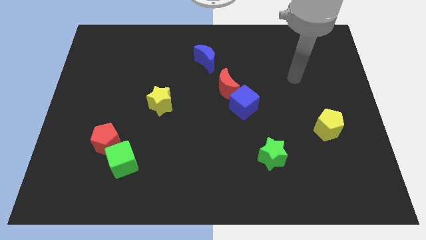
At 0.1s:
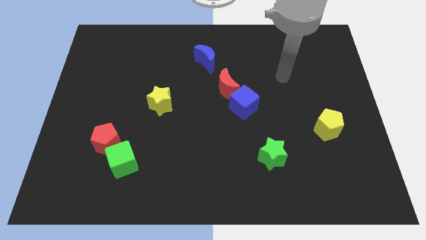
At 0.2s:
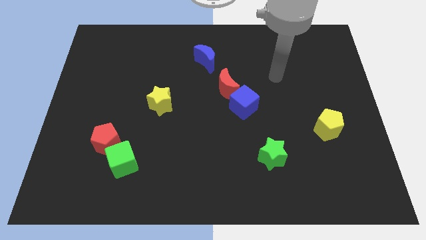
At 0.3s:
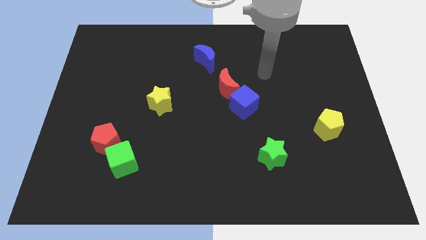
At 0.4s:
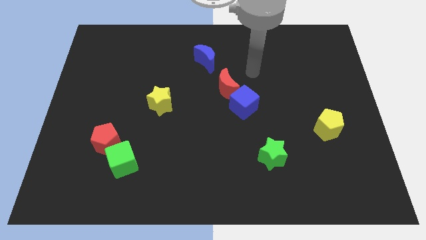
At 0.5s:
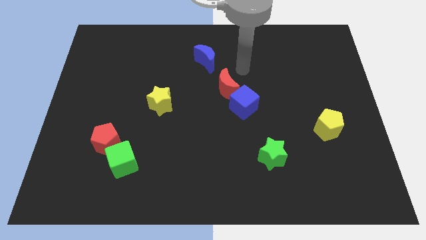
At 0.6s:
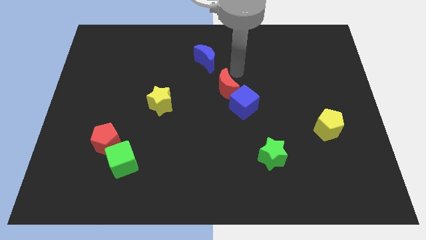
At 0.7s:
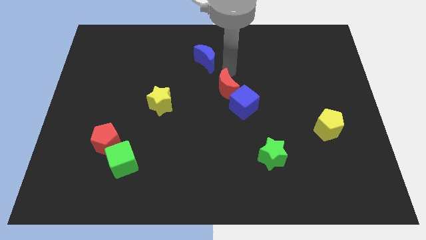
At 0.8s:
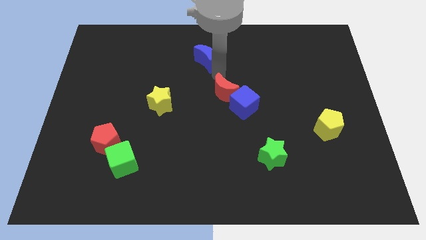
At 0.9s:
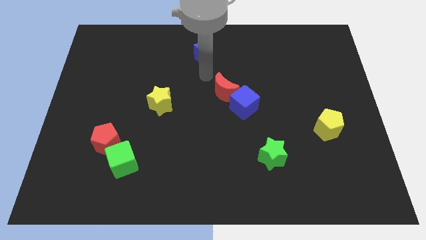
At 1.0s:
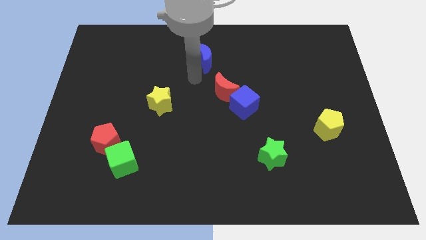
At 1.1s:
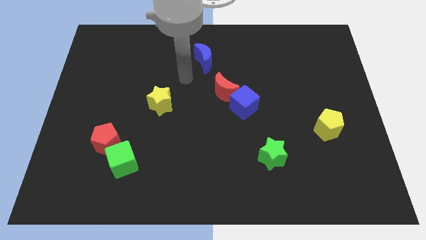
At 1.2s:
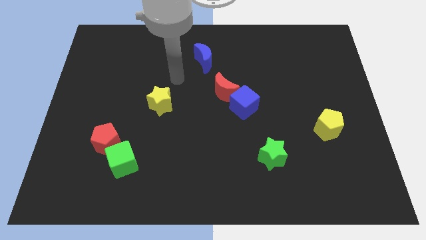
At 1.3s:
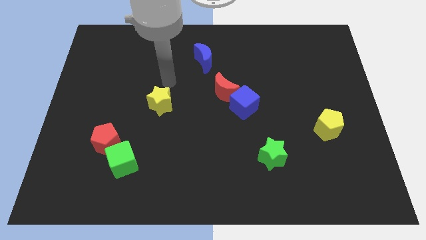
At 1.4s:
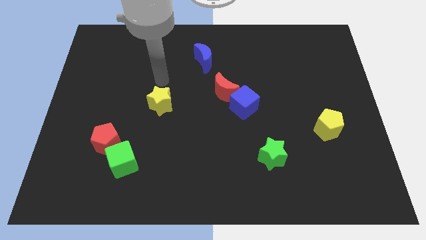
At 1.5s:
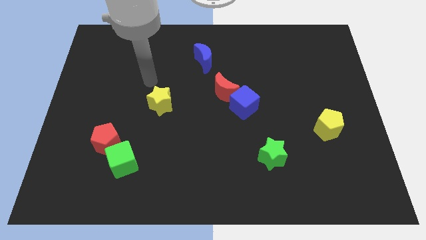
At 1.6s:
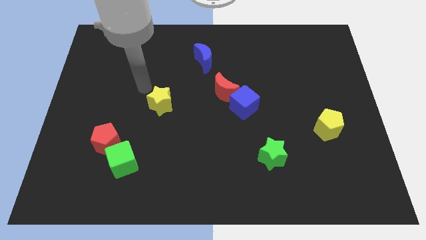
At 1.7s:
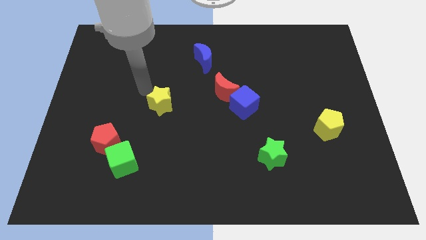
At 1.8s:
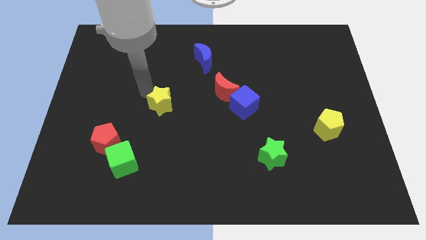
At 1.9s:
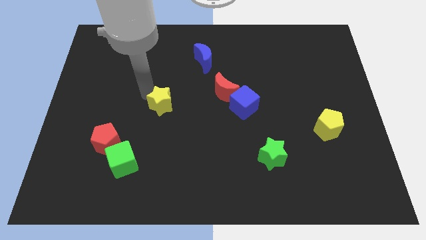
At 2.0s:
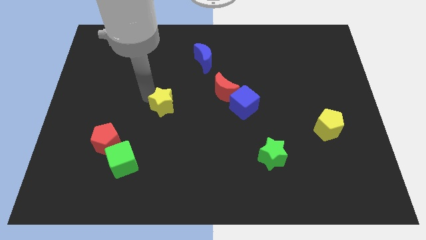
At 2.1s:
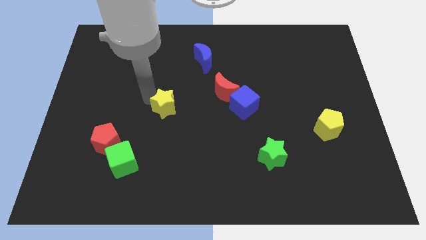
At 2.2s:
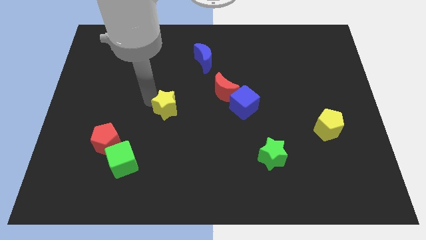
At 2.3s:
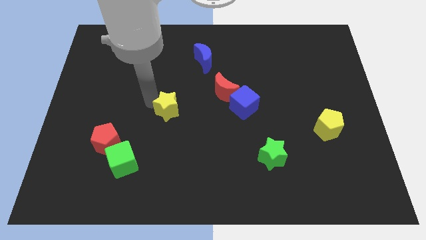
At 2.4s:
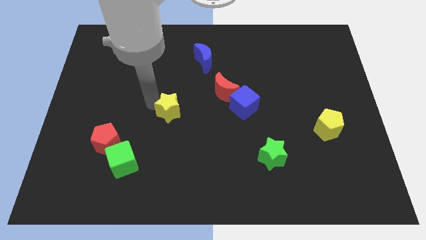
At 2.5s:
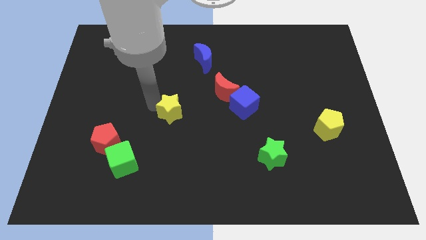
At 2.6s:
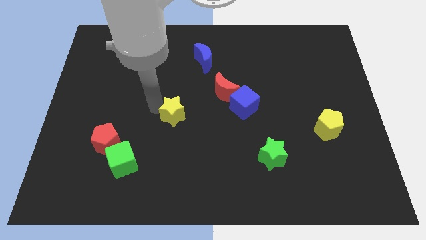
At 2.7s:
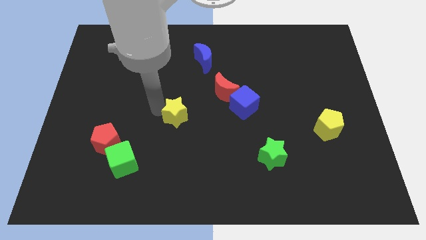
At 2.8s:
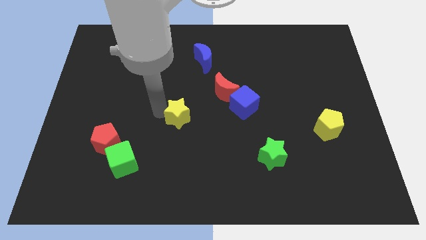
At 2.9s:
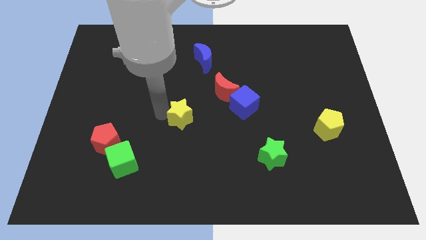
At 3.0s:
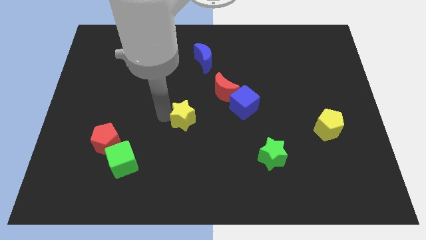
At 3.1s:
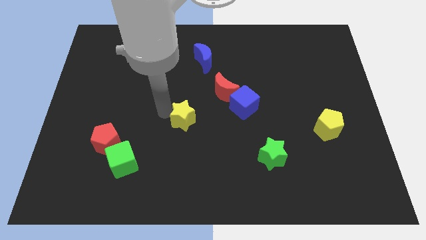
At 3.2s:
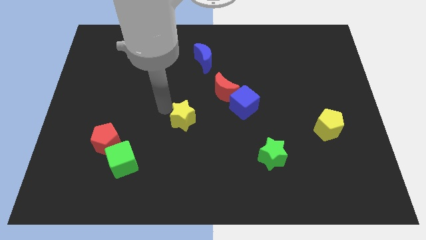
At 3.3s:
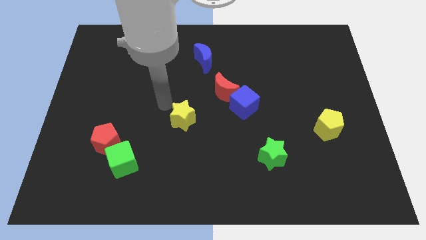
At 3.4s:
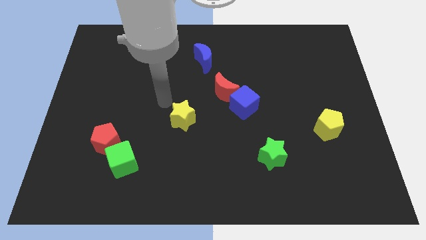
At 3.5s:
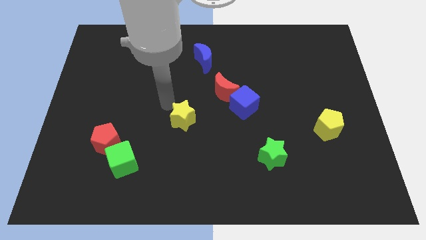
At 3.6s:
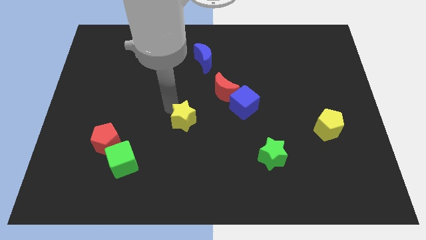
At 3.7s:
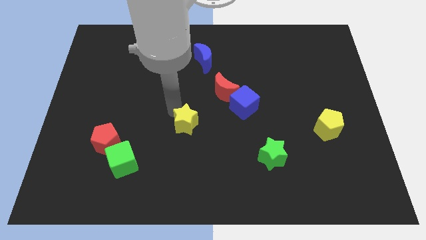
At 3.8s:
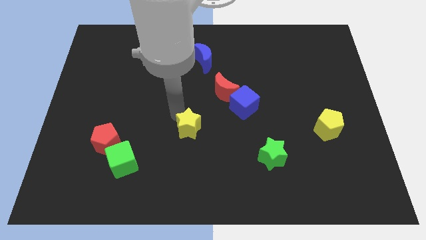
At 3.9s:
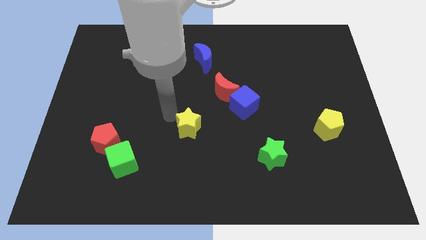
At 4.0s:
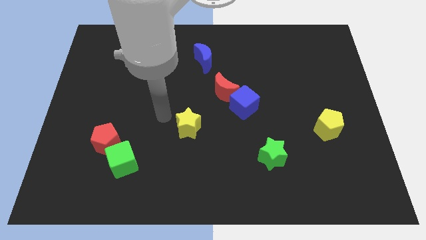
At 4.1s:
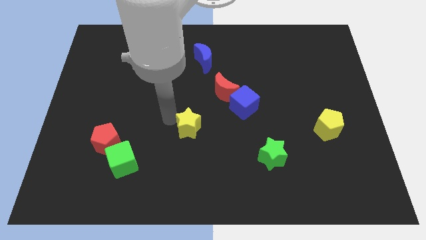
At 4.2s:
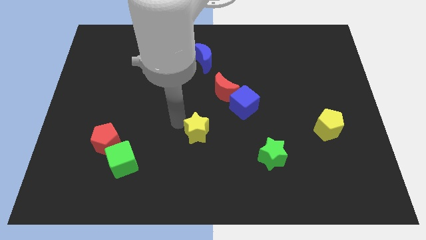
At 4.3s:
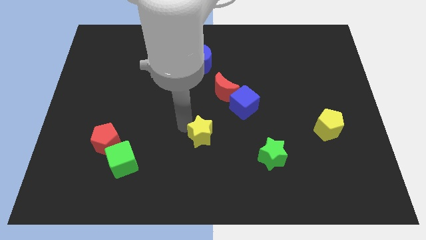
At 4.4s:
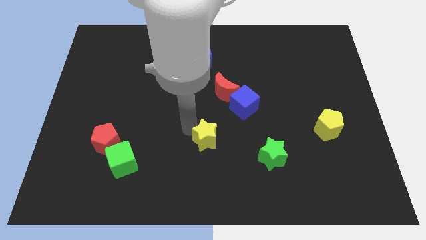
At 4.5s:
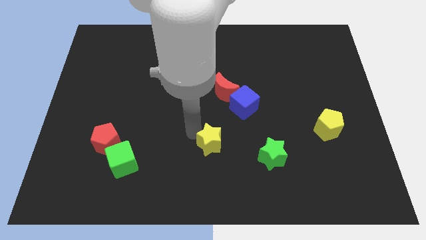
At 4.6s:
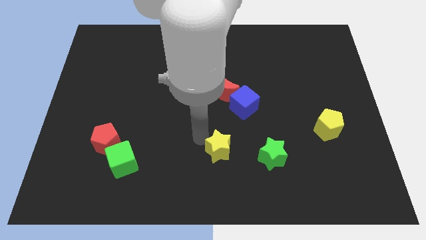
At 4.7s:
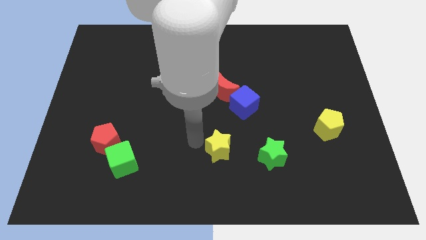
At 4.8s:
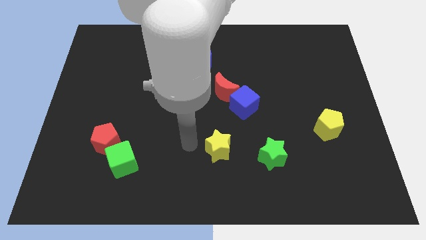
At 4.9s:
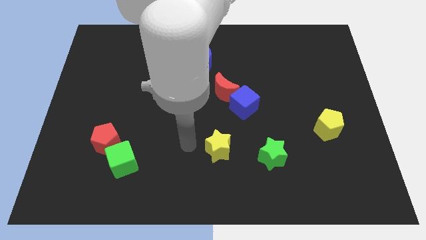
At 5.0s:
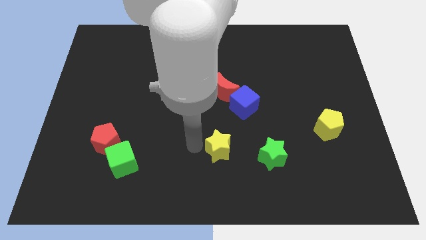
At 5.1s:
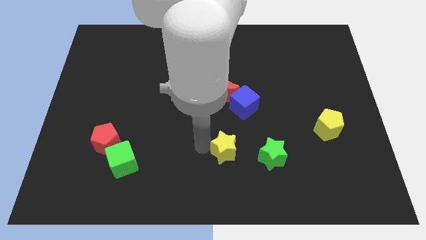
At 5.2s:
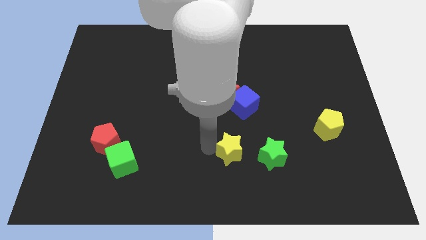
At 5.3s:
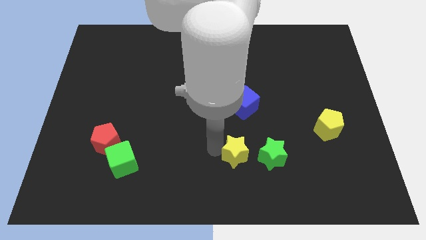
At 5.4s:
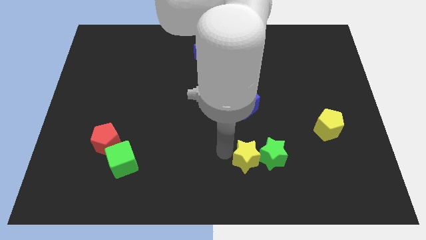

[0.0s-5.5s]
move the yellow star towards the green star

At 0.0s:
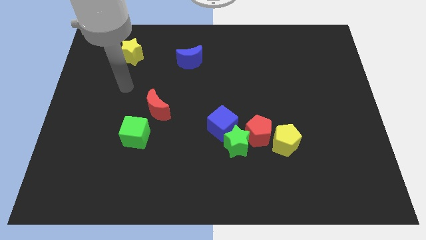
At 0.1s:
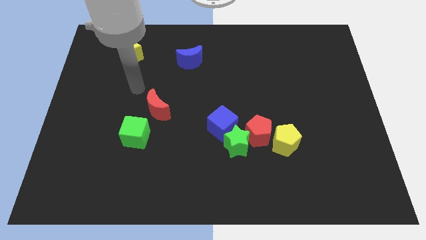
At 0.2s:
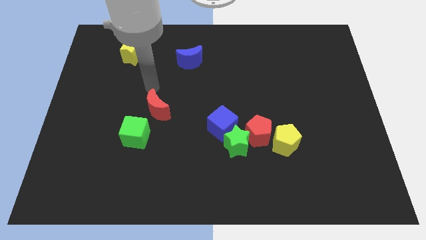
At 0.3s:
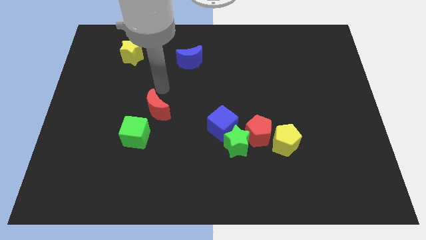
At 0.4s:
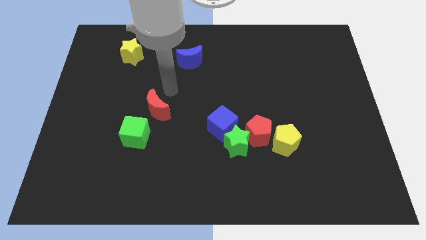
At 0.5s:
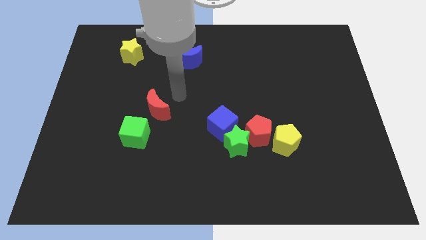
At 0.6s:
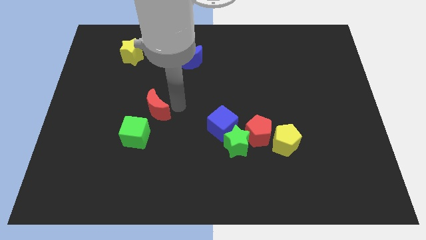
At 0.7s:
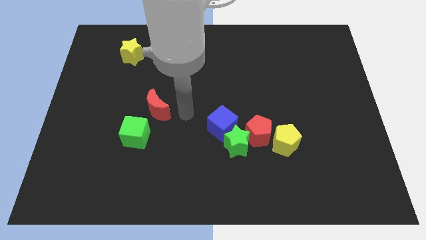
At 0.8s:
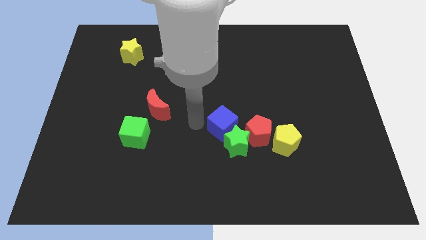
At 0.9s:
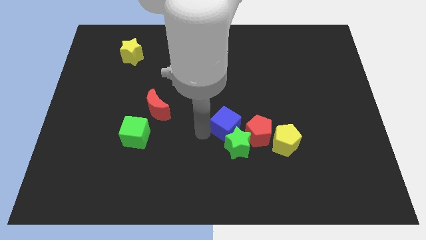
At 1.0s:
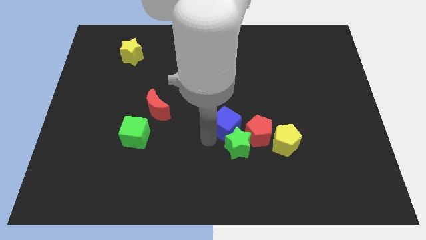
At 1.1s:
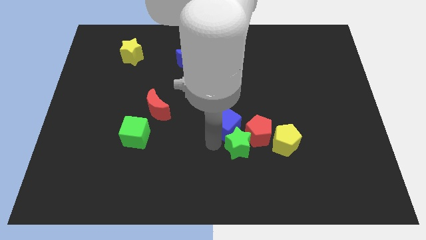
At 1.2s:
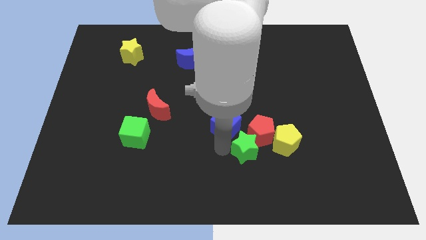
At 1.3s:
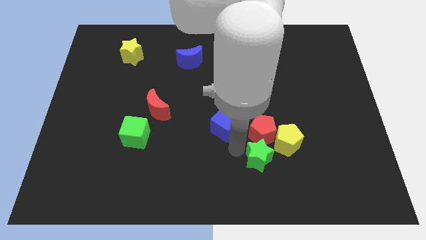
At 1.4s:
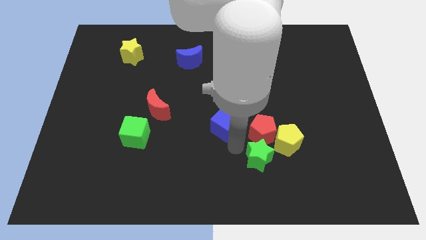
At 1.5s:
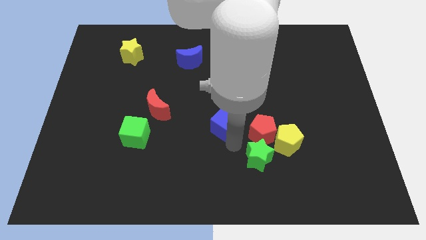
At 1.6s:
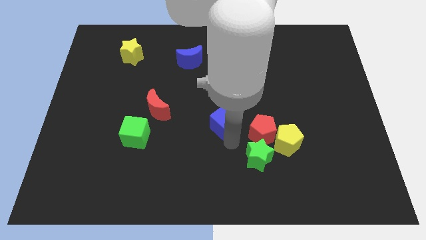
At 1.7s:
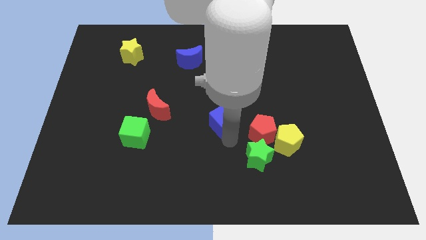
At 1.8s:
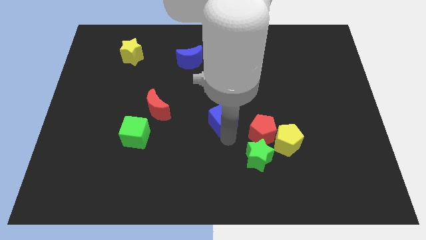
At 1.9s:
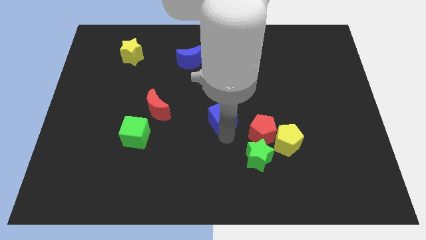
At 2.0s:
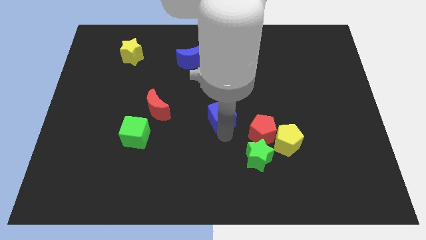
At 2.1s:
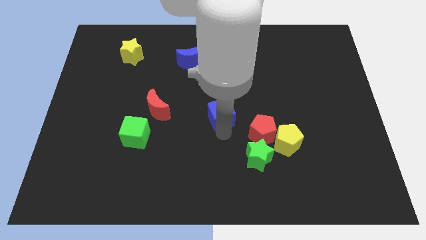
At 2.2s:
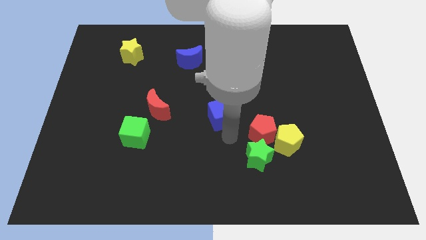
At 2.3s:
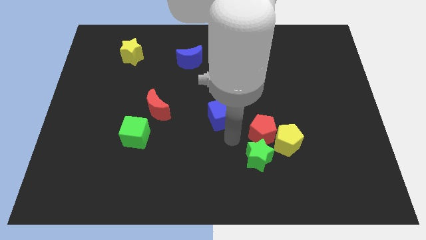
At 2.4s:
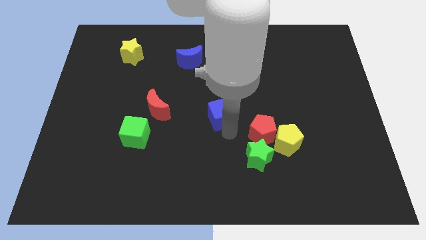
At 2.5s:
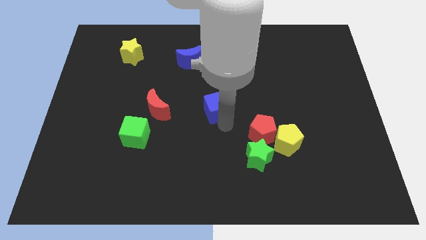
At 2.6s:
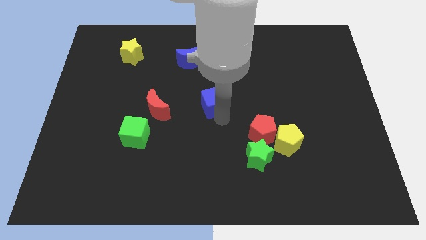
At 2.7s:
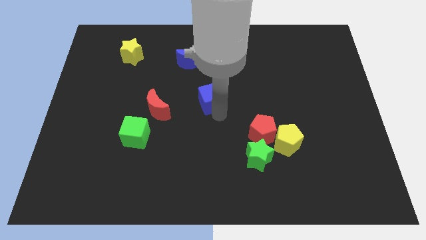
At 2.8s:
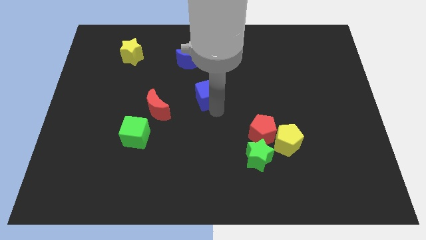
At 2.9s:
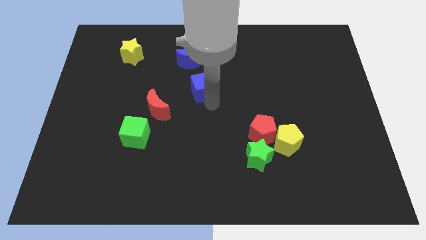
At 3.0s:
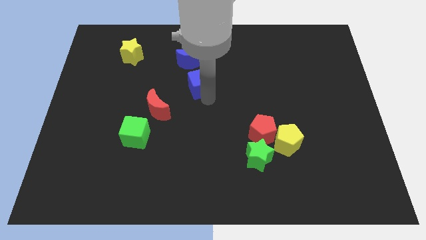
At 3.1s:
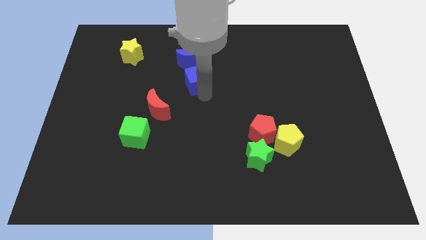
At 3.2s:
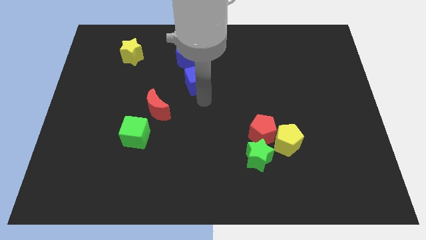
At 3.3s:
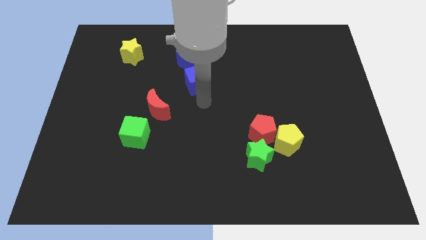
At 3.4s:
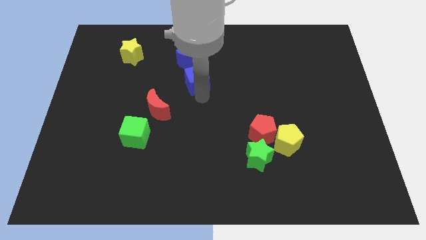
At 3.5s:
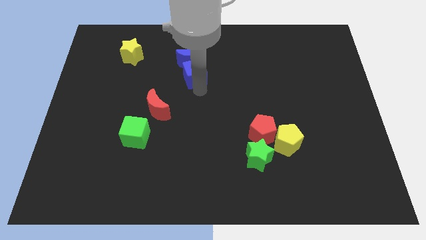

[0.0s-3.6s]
slide the blue cube towards the blue moon
